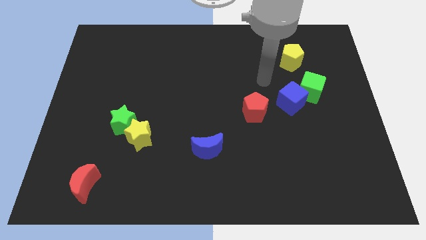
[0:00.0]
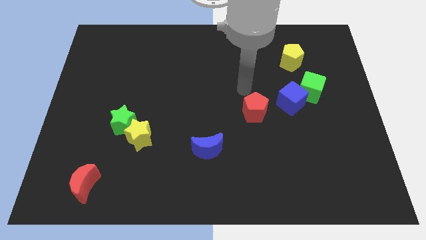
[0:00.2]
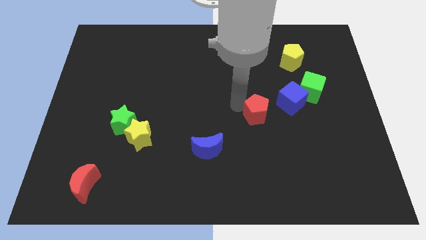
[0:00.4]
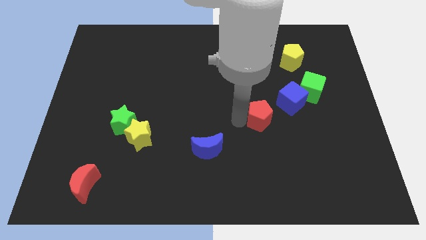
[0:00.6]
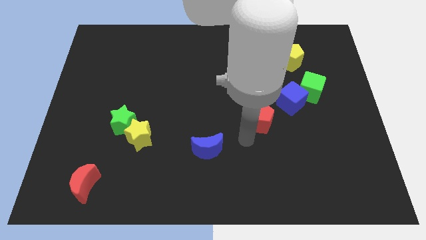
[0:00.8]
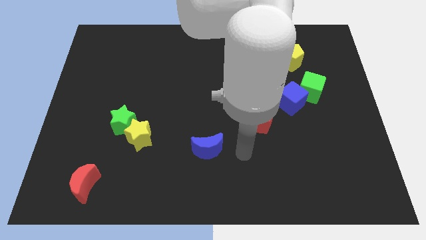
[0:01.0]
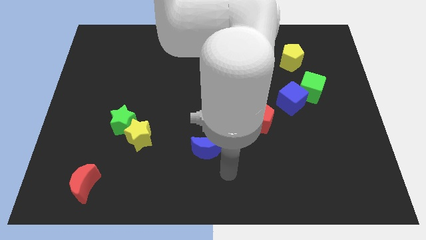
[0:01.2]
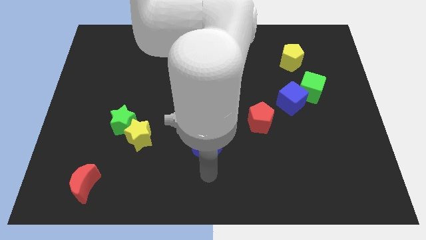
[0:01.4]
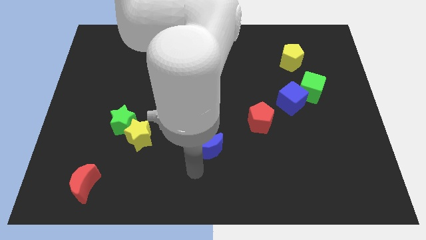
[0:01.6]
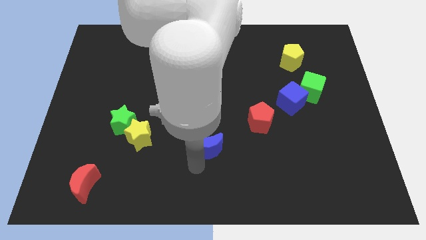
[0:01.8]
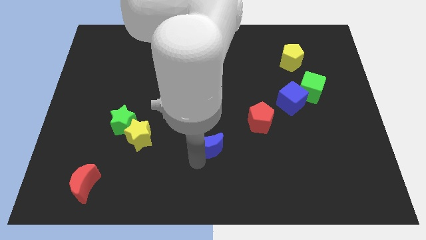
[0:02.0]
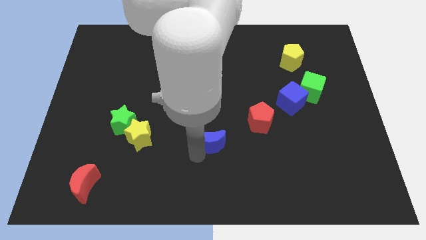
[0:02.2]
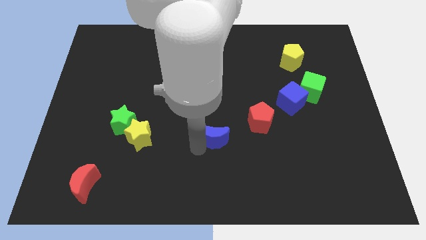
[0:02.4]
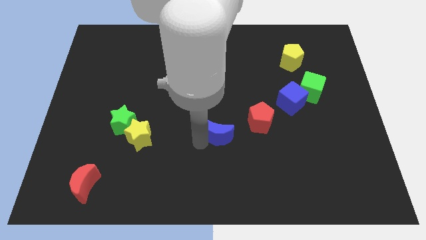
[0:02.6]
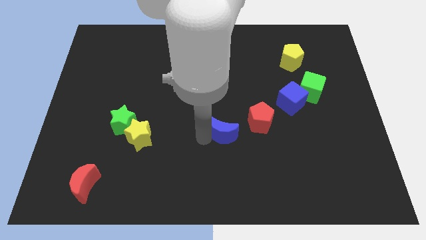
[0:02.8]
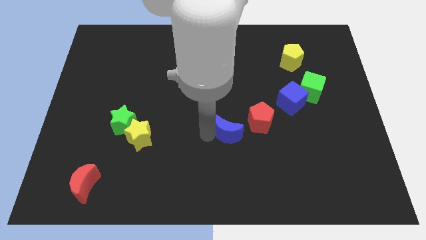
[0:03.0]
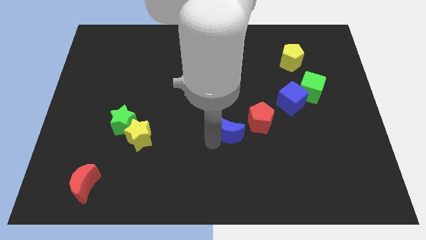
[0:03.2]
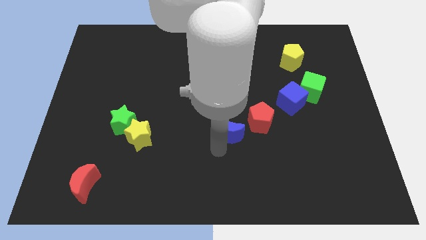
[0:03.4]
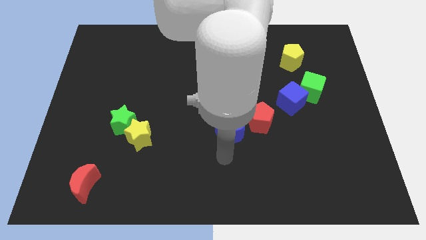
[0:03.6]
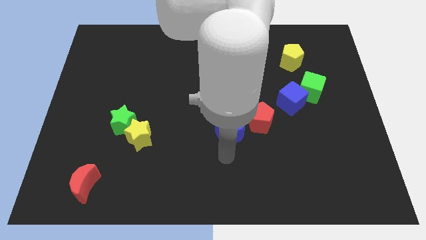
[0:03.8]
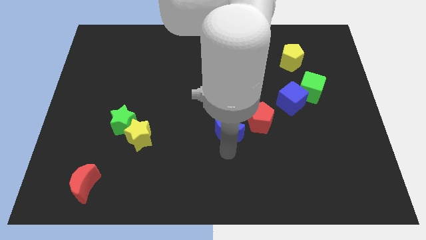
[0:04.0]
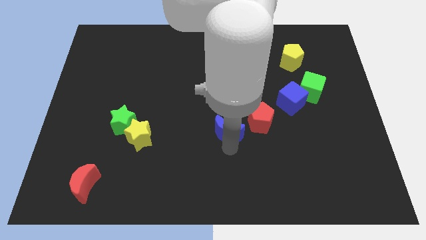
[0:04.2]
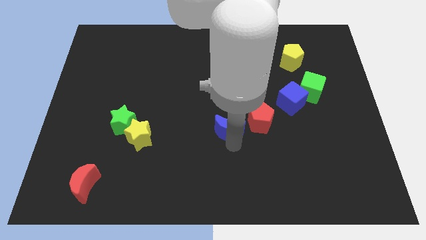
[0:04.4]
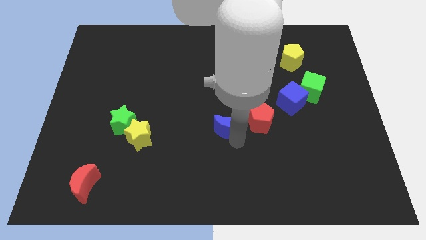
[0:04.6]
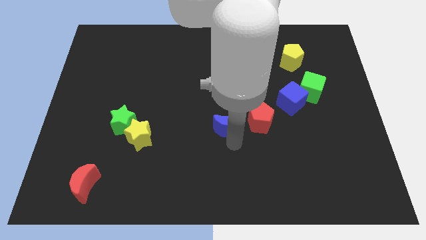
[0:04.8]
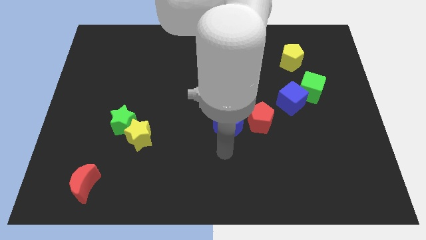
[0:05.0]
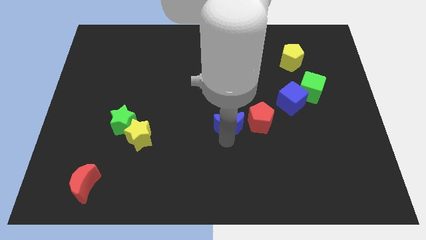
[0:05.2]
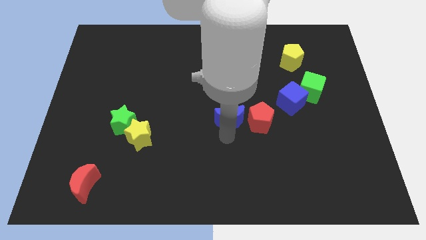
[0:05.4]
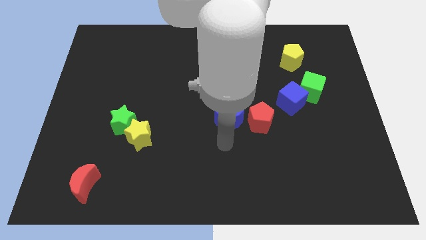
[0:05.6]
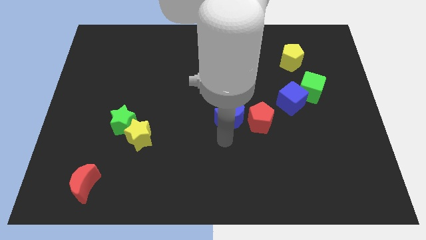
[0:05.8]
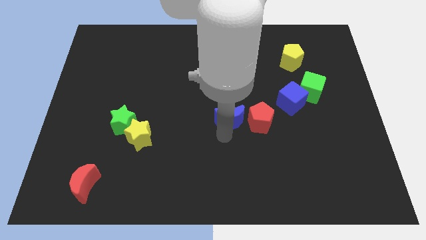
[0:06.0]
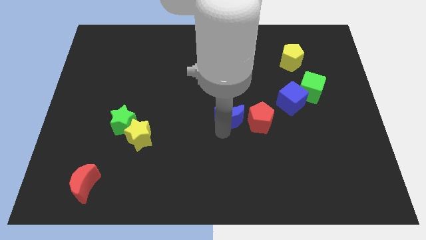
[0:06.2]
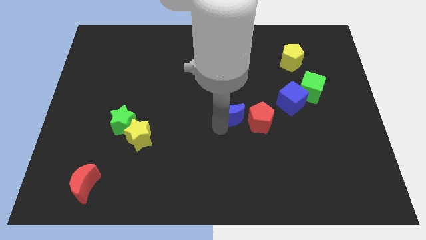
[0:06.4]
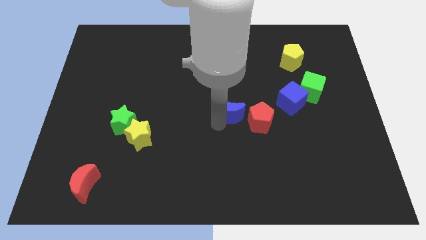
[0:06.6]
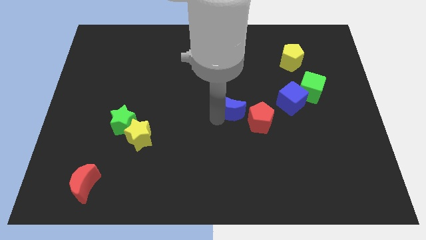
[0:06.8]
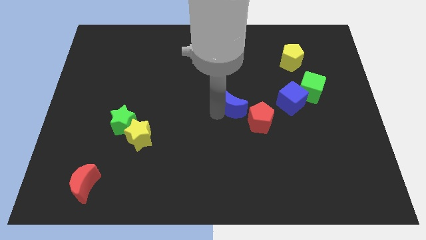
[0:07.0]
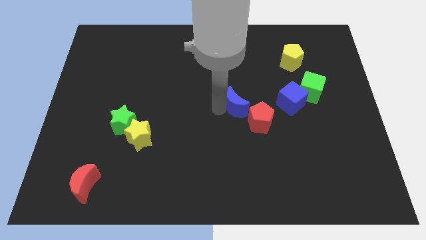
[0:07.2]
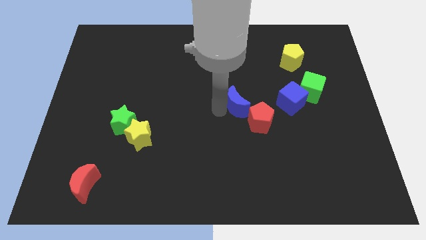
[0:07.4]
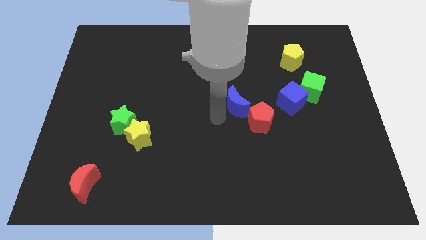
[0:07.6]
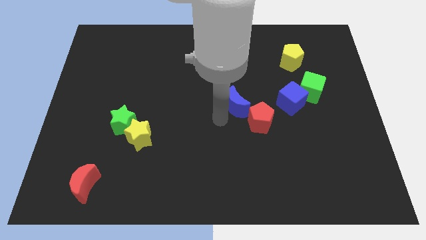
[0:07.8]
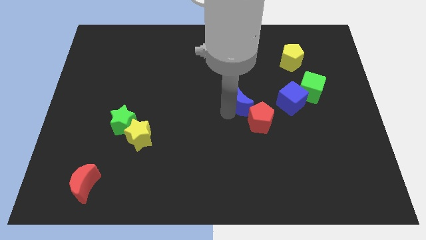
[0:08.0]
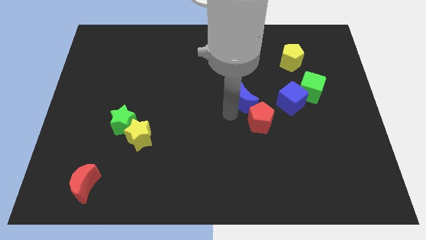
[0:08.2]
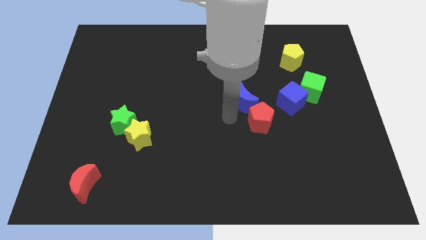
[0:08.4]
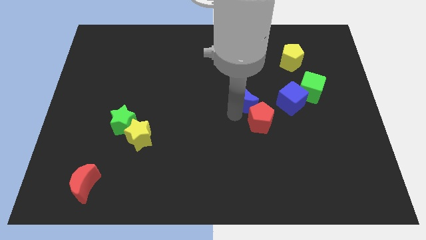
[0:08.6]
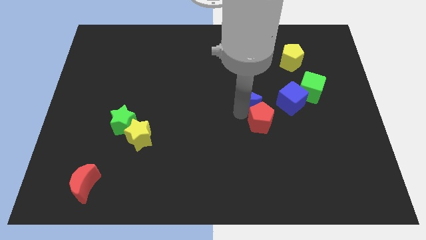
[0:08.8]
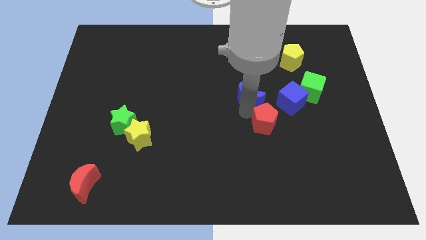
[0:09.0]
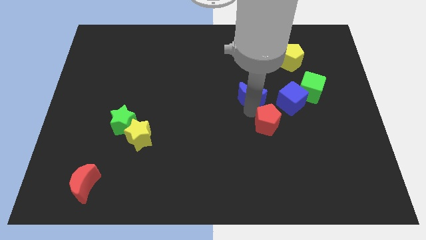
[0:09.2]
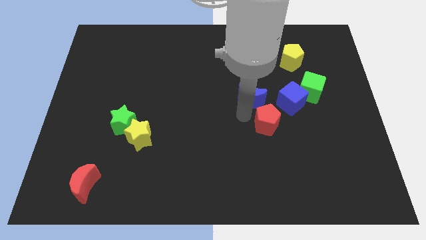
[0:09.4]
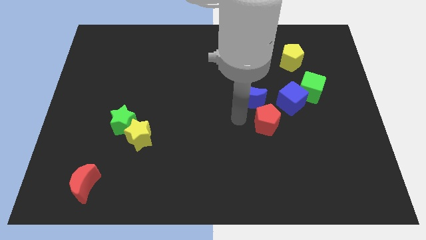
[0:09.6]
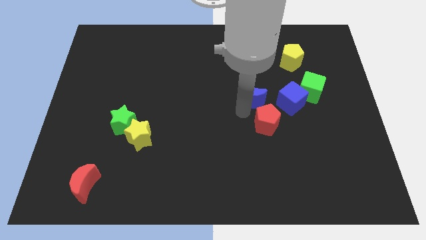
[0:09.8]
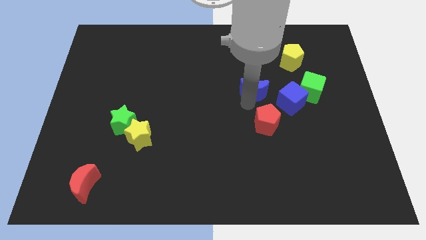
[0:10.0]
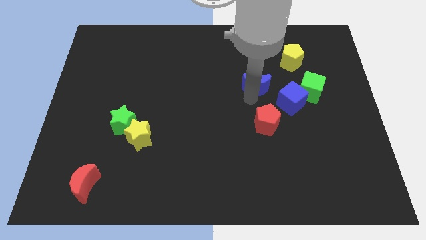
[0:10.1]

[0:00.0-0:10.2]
push the blue moon up and to the right diagonally

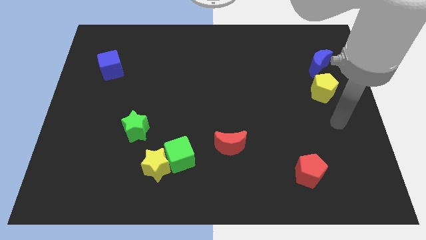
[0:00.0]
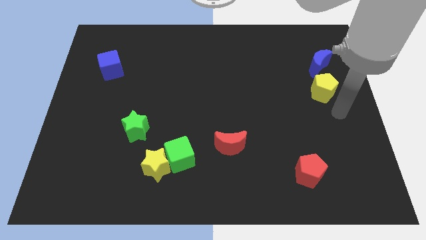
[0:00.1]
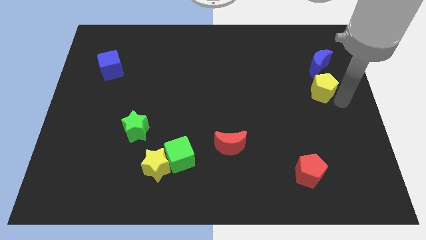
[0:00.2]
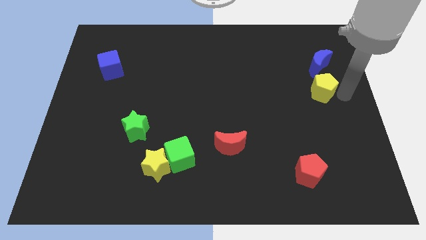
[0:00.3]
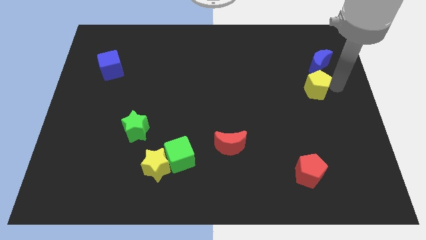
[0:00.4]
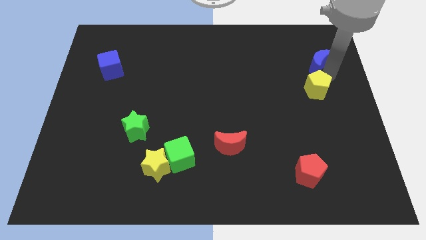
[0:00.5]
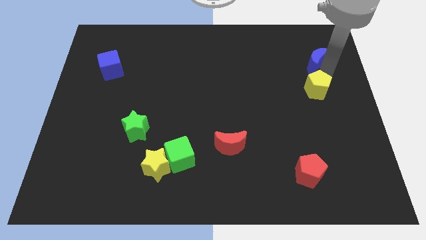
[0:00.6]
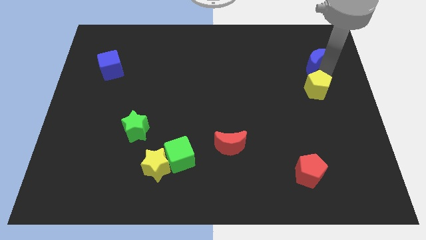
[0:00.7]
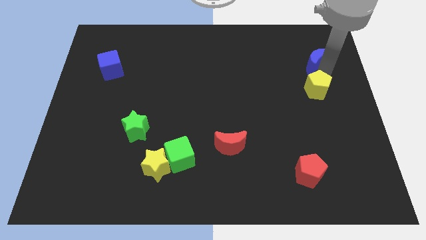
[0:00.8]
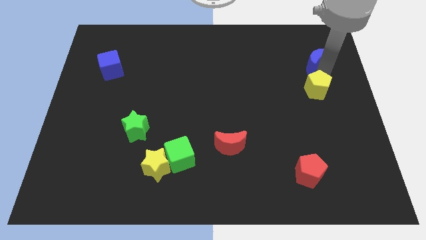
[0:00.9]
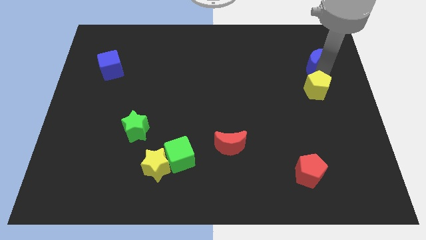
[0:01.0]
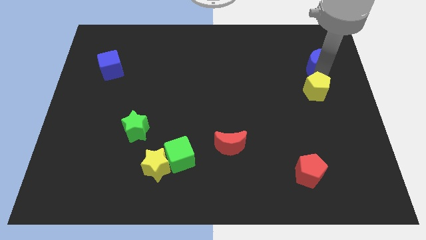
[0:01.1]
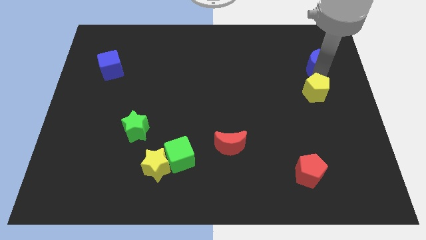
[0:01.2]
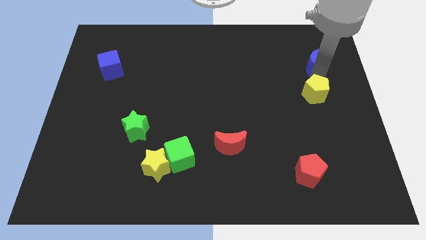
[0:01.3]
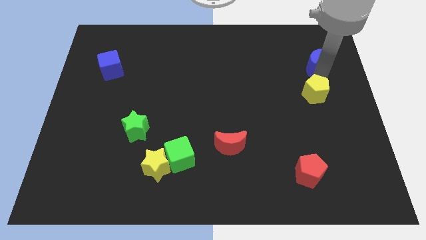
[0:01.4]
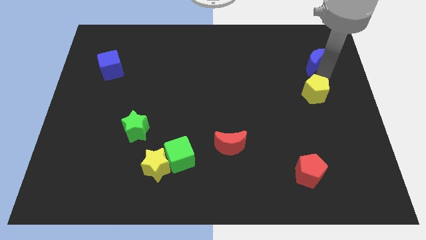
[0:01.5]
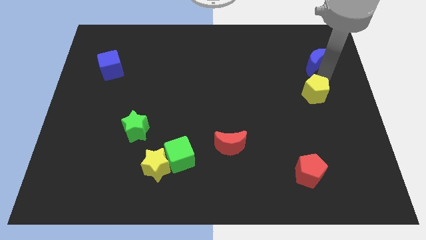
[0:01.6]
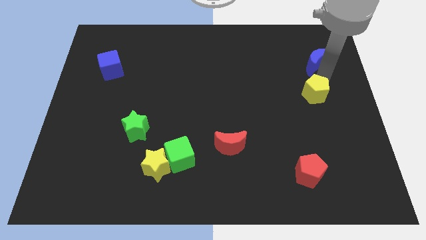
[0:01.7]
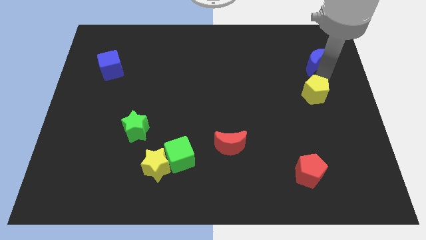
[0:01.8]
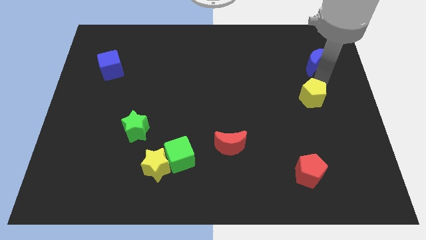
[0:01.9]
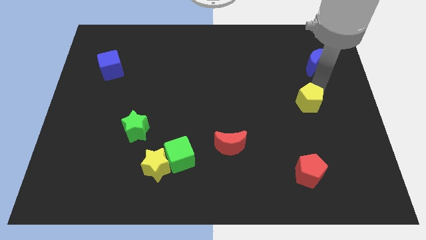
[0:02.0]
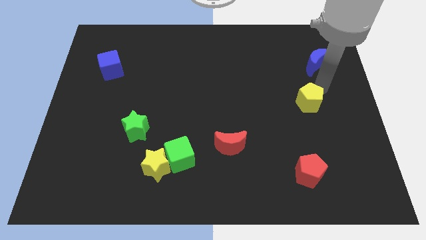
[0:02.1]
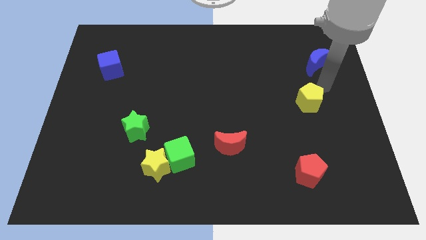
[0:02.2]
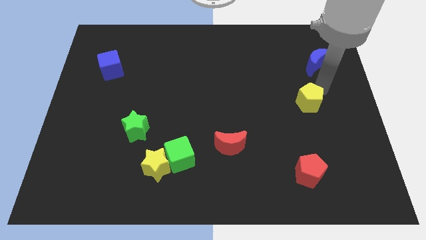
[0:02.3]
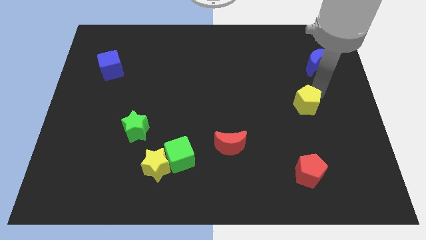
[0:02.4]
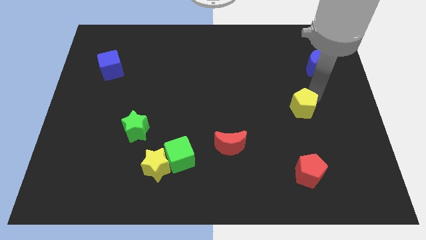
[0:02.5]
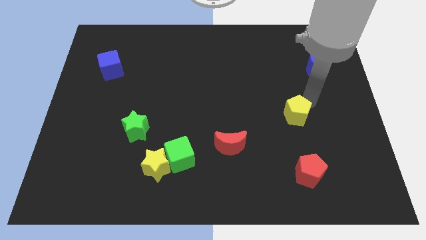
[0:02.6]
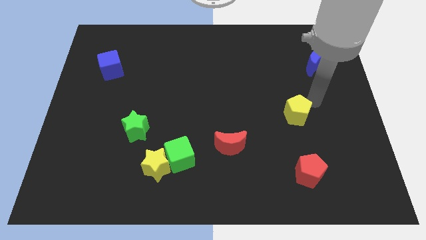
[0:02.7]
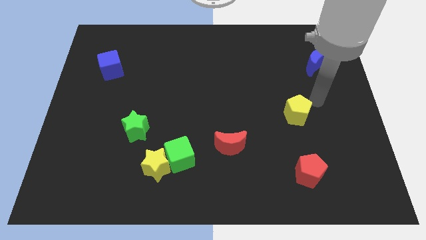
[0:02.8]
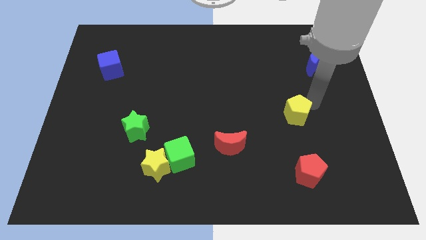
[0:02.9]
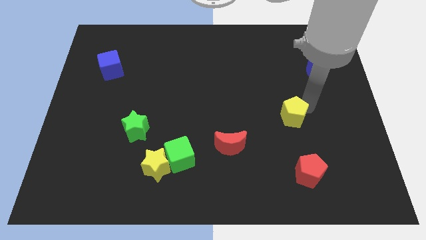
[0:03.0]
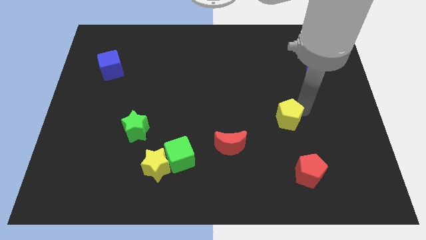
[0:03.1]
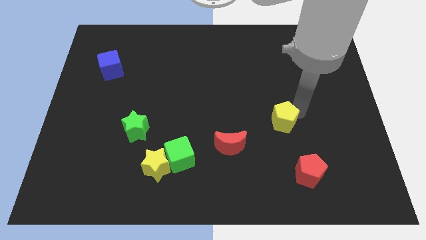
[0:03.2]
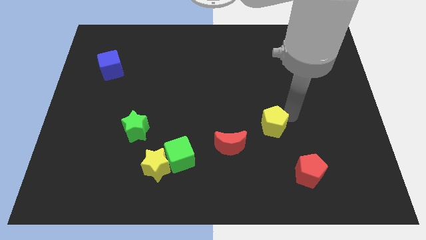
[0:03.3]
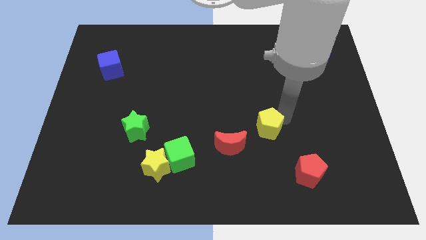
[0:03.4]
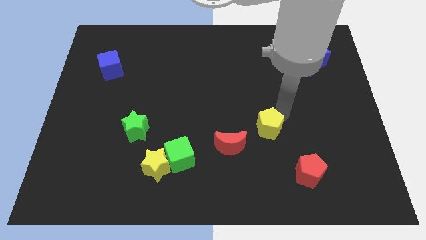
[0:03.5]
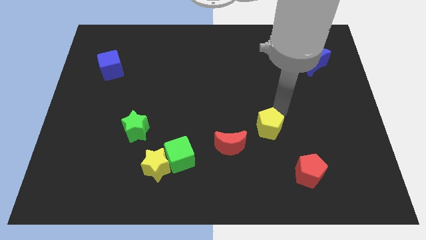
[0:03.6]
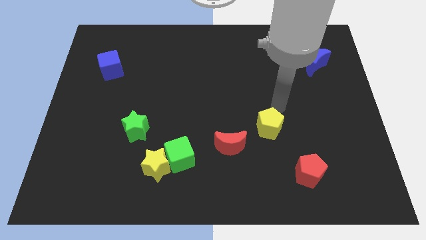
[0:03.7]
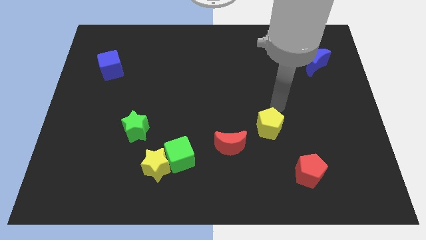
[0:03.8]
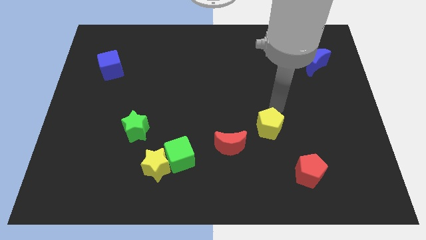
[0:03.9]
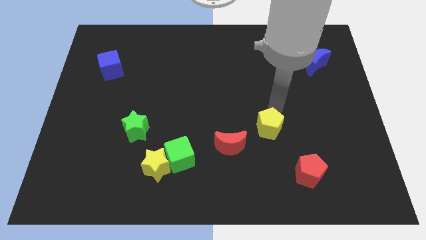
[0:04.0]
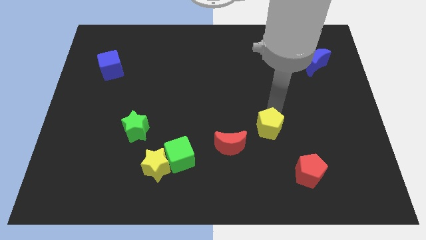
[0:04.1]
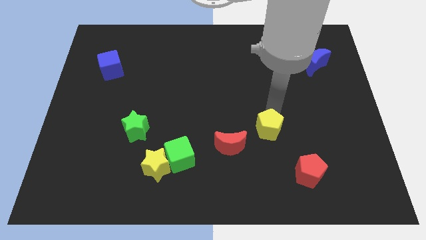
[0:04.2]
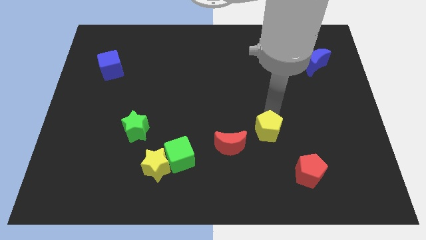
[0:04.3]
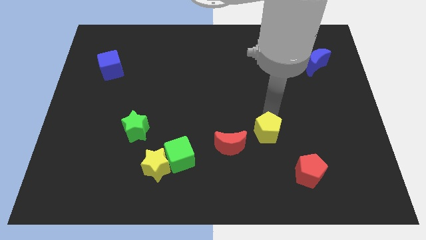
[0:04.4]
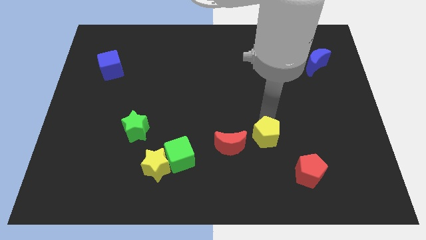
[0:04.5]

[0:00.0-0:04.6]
move the yellow pentagon downwards and to the left diagonally
